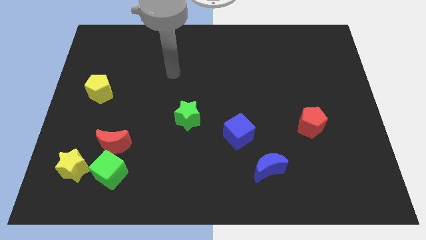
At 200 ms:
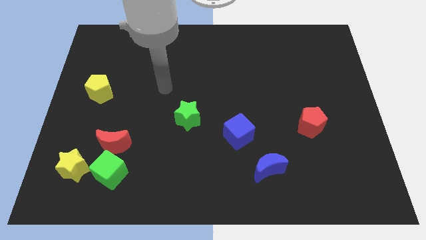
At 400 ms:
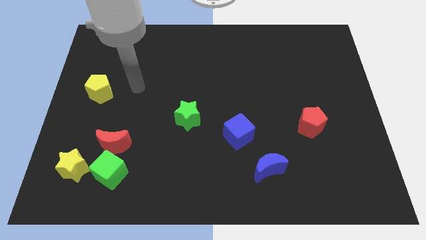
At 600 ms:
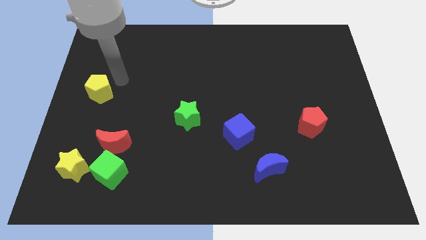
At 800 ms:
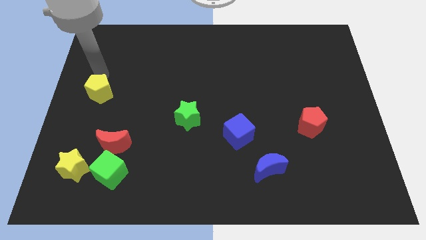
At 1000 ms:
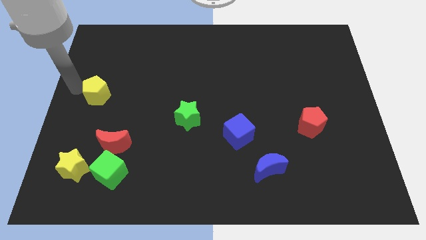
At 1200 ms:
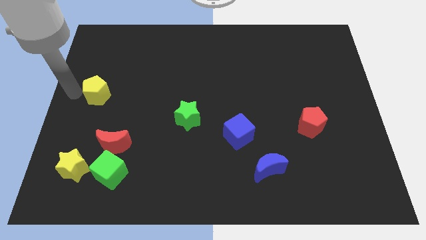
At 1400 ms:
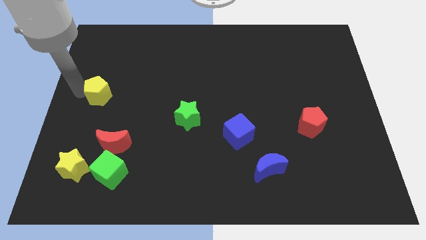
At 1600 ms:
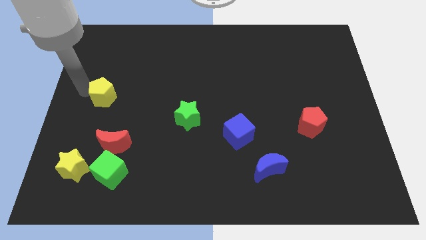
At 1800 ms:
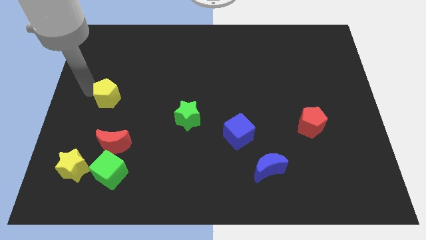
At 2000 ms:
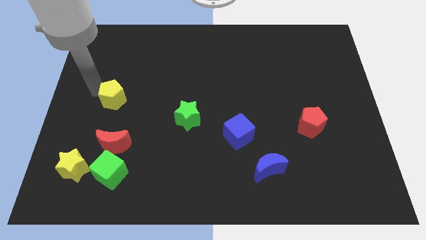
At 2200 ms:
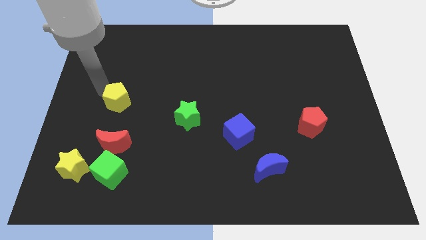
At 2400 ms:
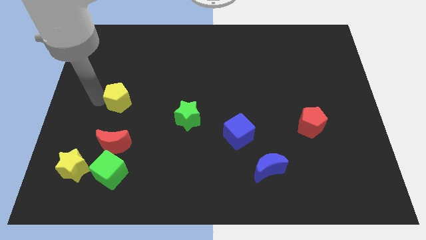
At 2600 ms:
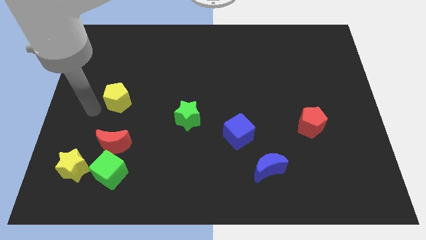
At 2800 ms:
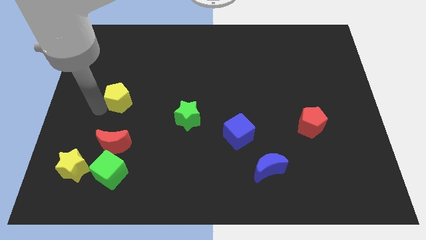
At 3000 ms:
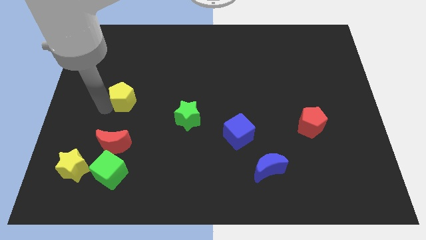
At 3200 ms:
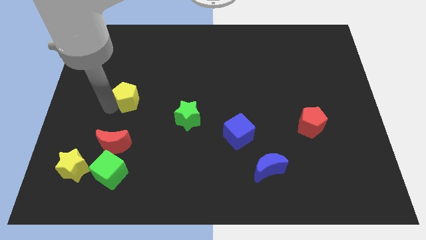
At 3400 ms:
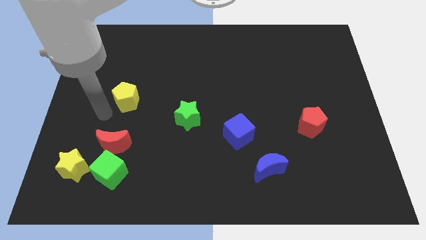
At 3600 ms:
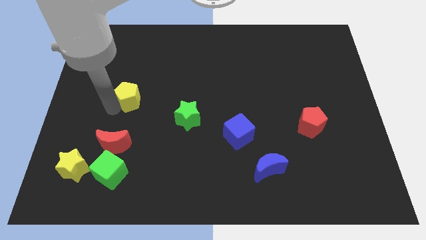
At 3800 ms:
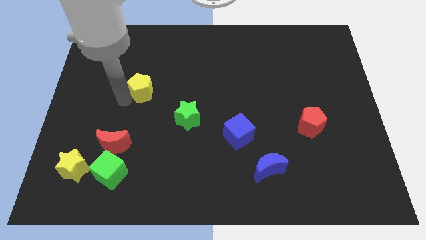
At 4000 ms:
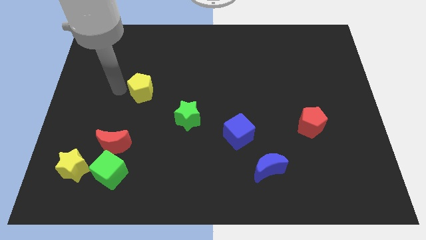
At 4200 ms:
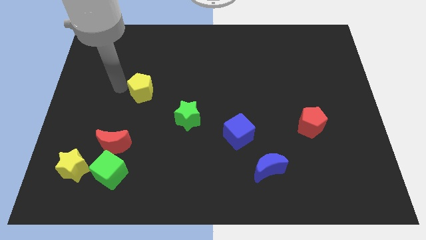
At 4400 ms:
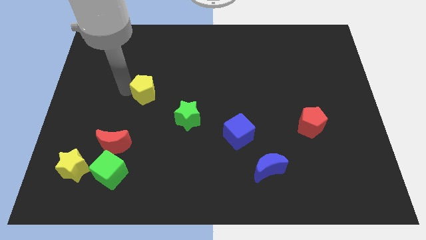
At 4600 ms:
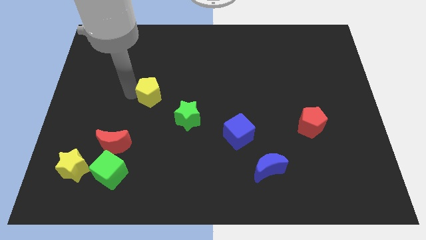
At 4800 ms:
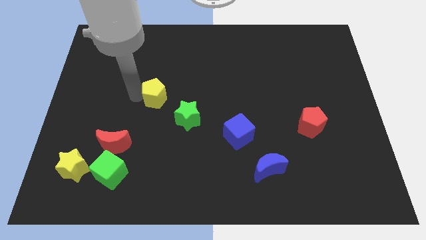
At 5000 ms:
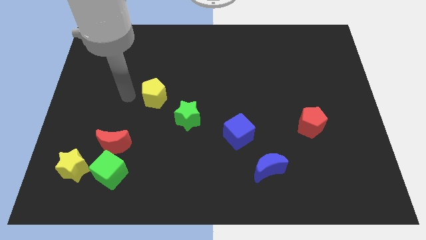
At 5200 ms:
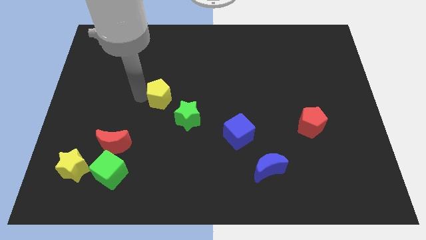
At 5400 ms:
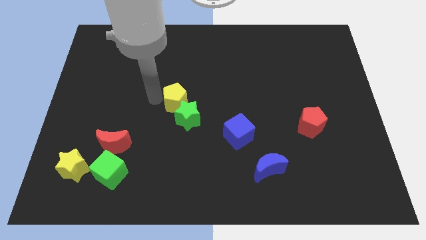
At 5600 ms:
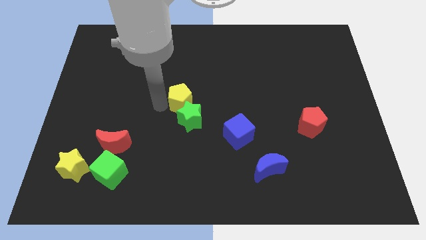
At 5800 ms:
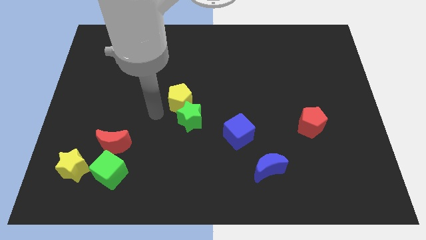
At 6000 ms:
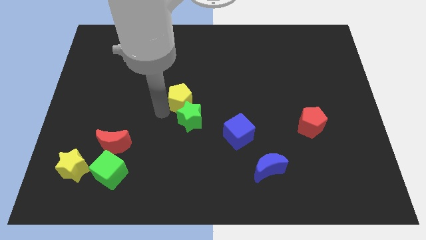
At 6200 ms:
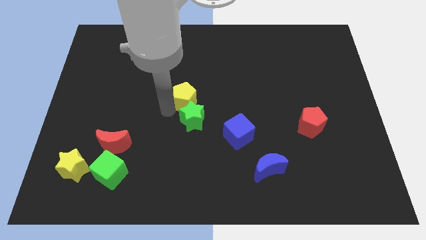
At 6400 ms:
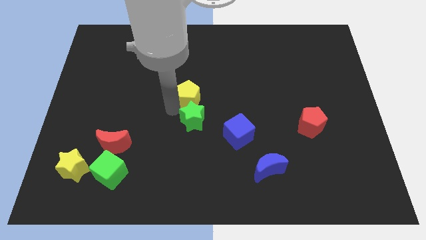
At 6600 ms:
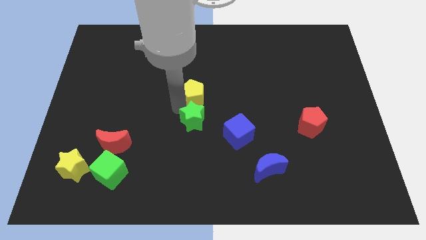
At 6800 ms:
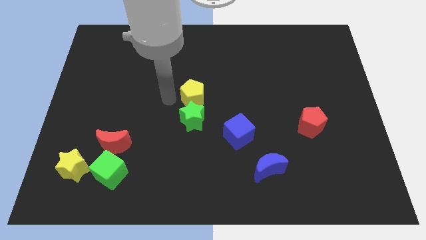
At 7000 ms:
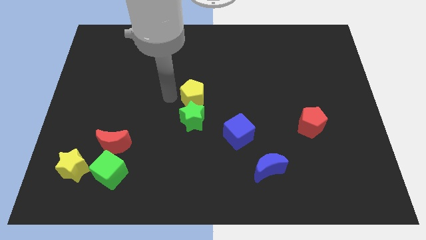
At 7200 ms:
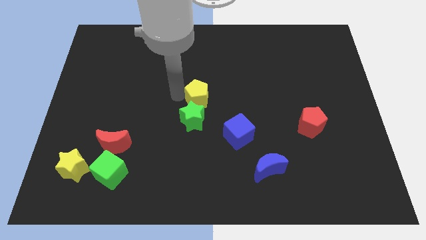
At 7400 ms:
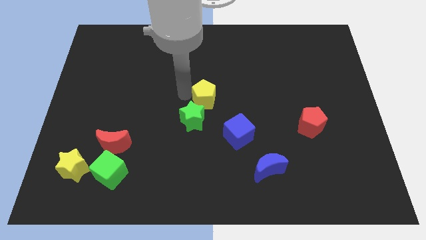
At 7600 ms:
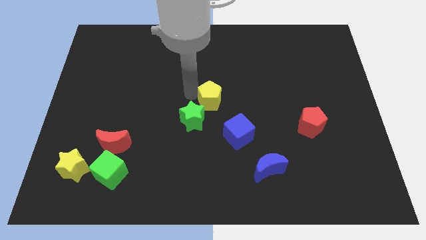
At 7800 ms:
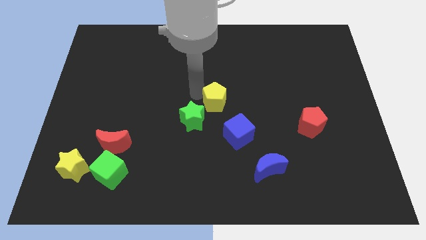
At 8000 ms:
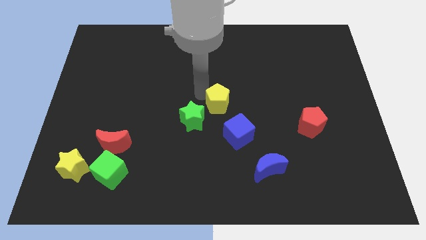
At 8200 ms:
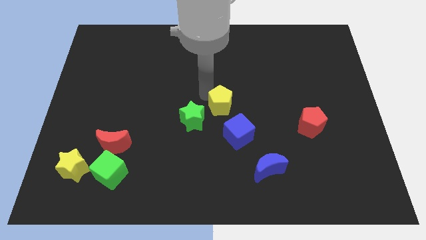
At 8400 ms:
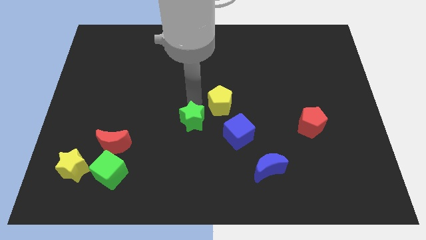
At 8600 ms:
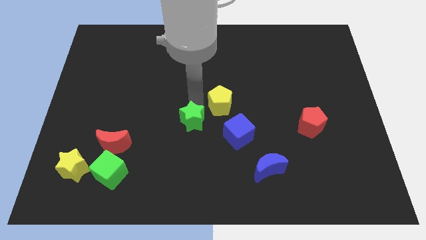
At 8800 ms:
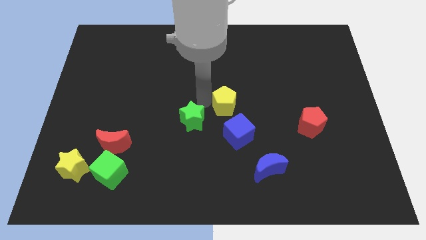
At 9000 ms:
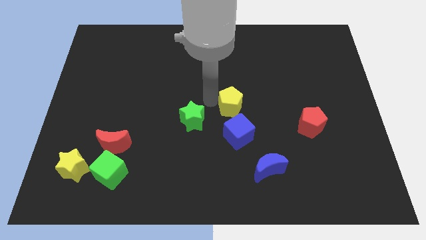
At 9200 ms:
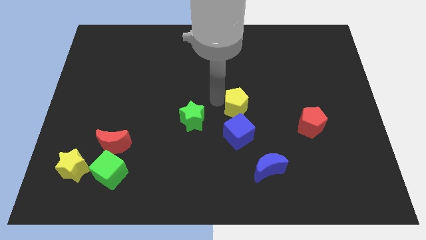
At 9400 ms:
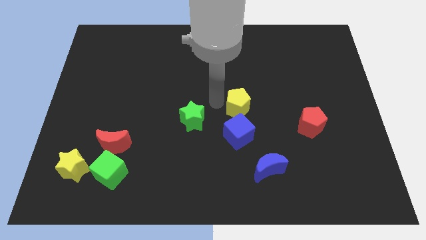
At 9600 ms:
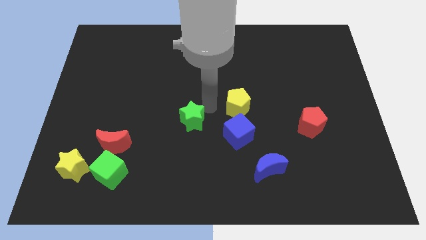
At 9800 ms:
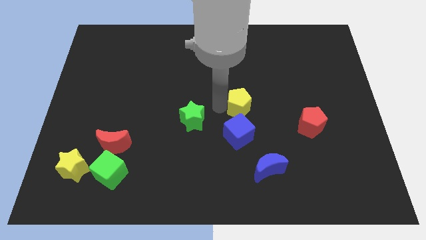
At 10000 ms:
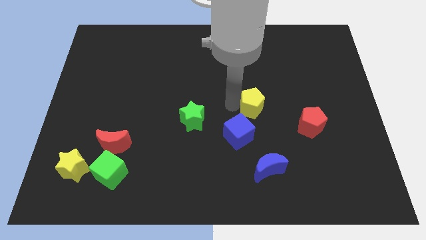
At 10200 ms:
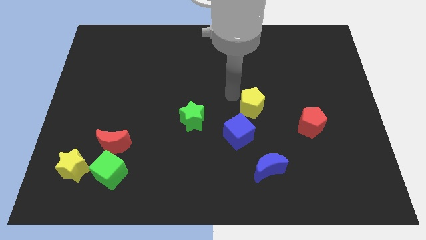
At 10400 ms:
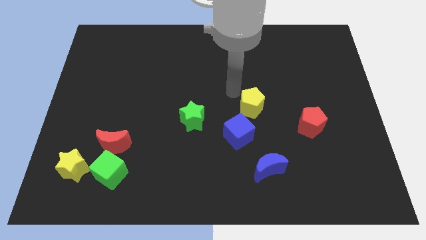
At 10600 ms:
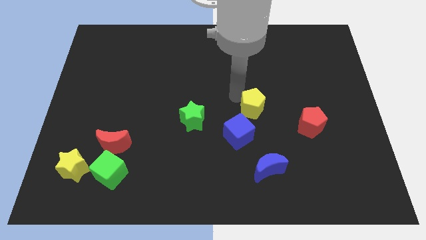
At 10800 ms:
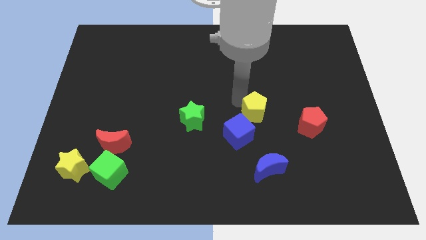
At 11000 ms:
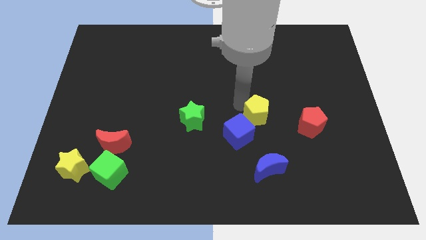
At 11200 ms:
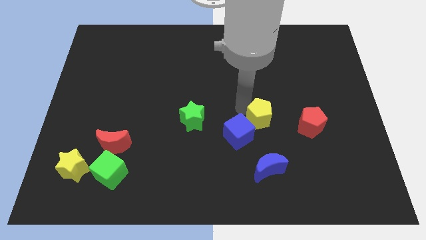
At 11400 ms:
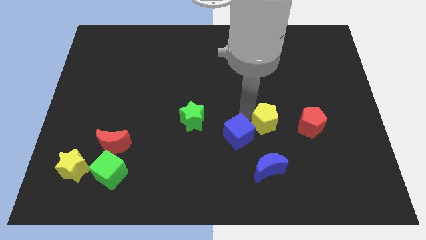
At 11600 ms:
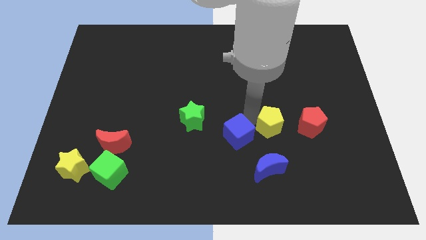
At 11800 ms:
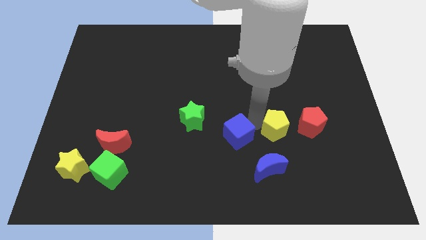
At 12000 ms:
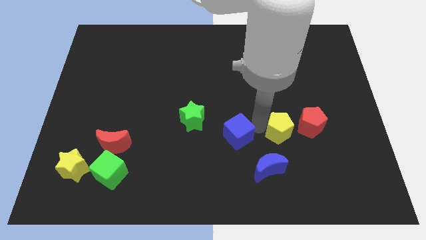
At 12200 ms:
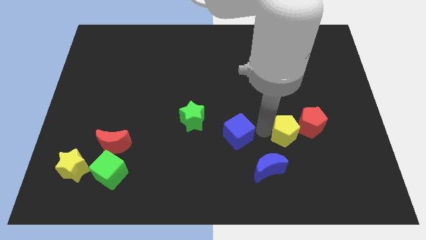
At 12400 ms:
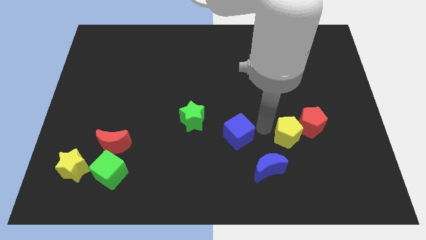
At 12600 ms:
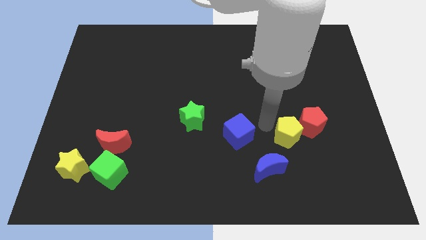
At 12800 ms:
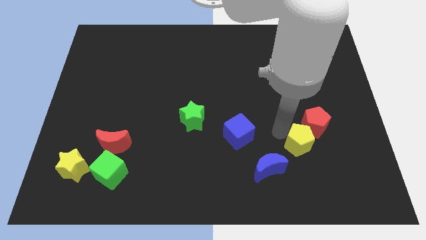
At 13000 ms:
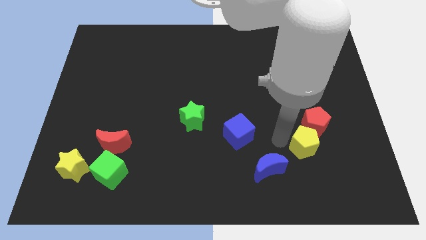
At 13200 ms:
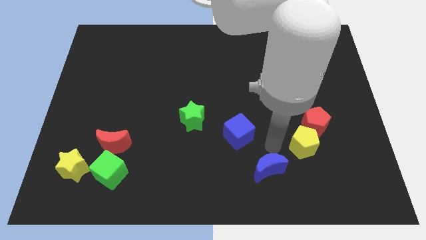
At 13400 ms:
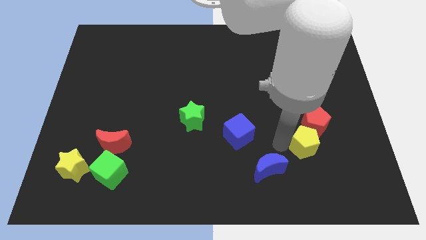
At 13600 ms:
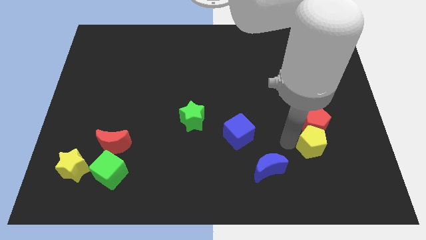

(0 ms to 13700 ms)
move the yellow pentagon to the bottom right side of the red pentagon
